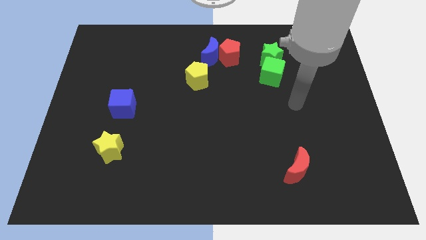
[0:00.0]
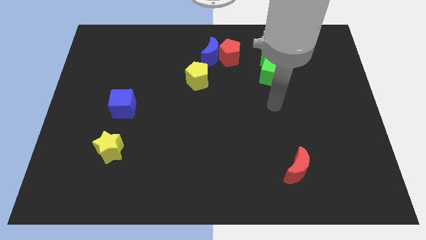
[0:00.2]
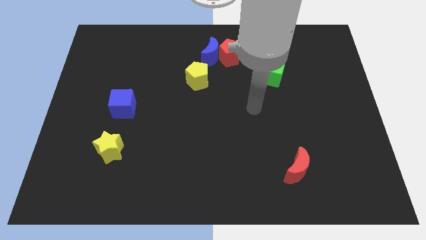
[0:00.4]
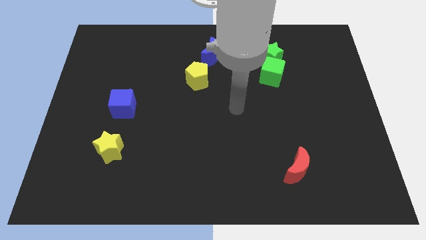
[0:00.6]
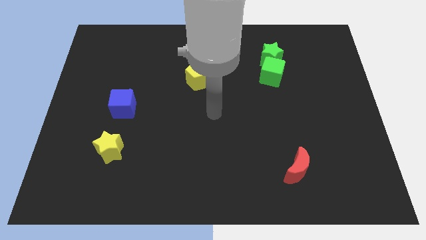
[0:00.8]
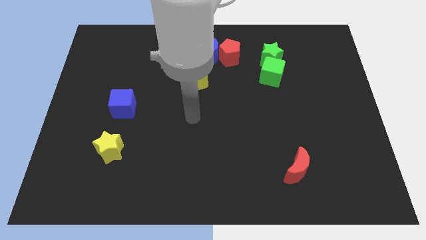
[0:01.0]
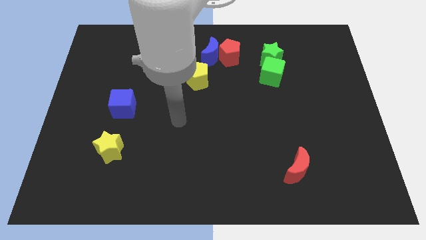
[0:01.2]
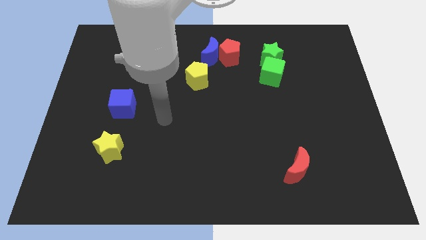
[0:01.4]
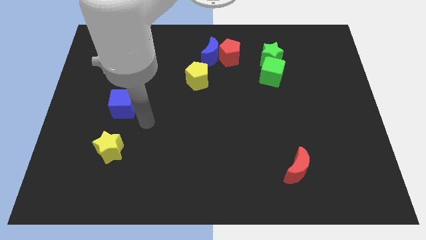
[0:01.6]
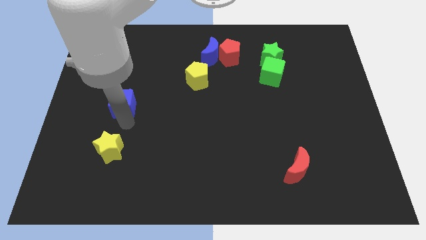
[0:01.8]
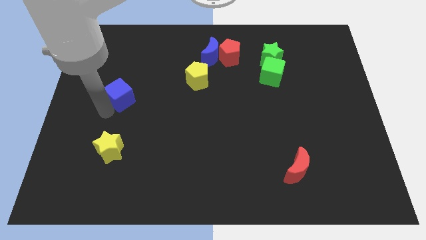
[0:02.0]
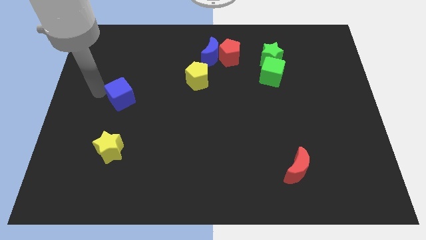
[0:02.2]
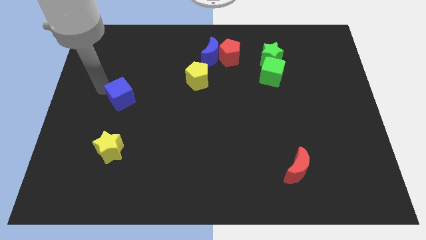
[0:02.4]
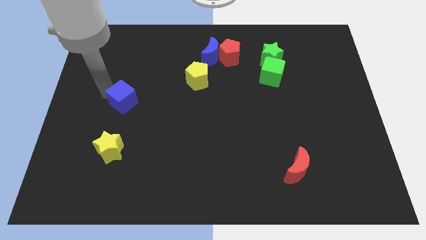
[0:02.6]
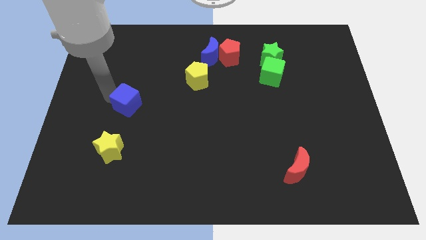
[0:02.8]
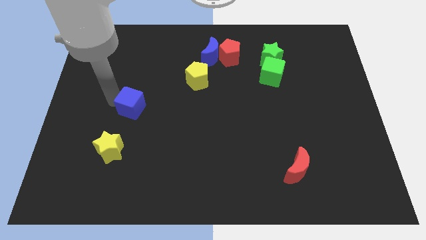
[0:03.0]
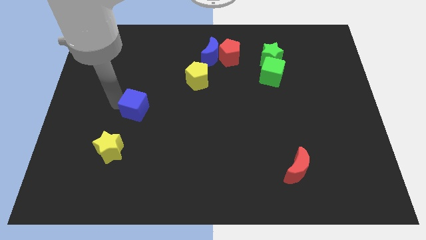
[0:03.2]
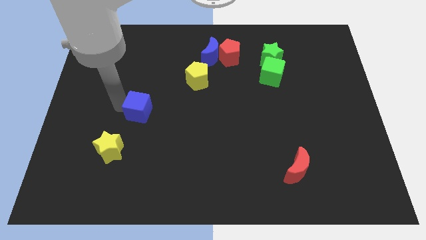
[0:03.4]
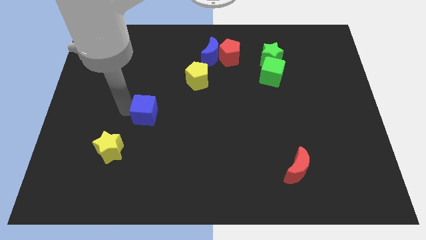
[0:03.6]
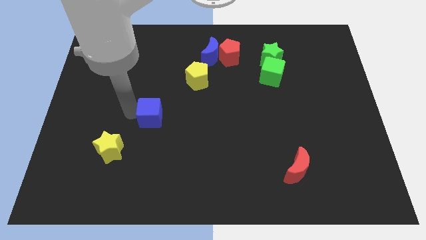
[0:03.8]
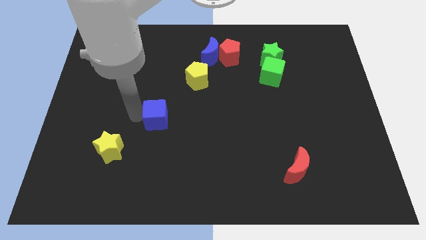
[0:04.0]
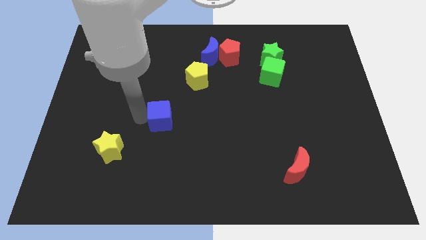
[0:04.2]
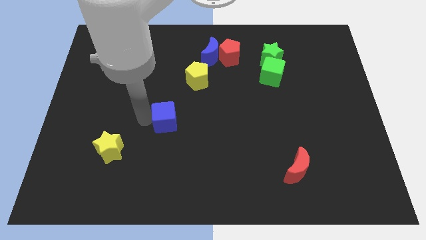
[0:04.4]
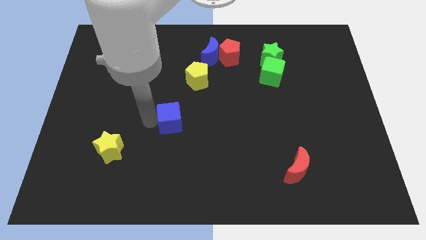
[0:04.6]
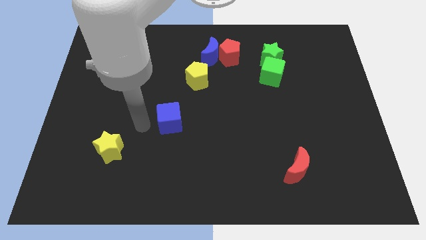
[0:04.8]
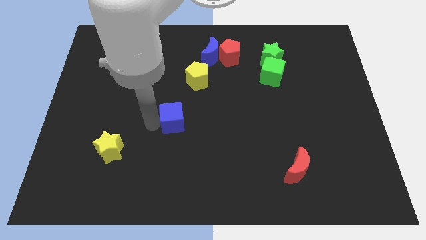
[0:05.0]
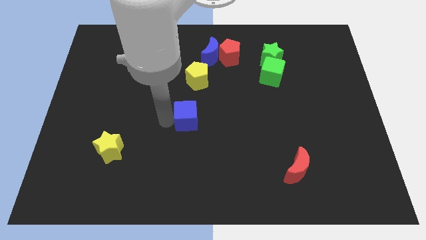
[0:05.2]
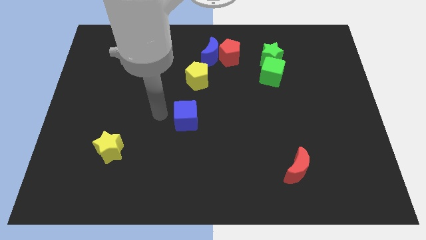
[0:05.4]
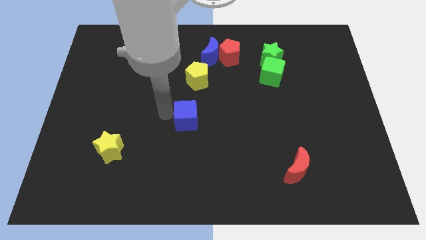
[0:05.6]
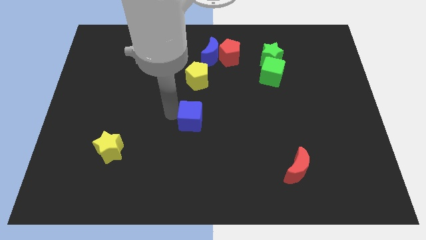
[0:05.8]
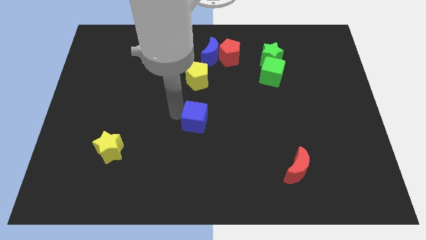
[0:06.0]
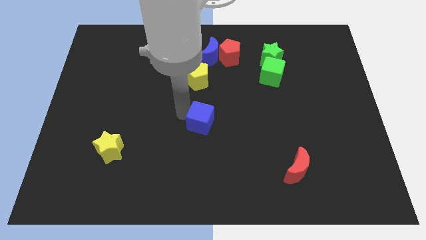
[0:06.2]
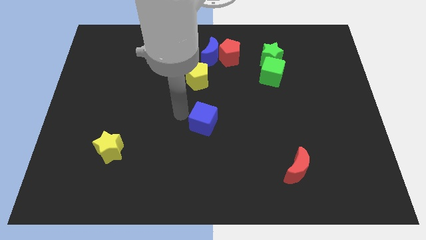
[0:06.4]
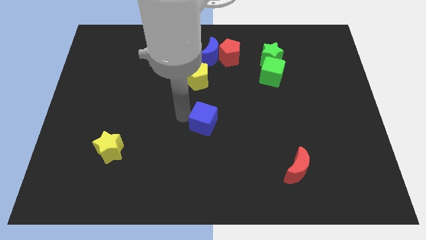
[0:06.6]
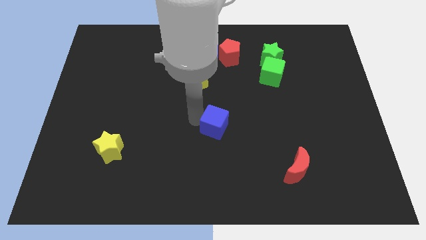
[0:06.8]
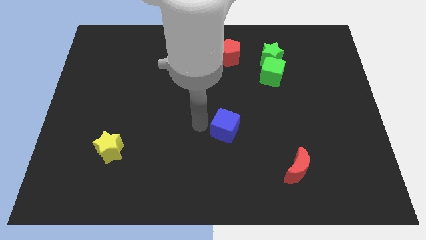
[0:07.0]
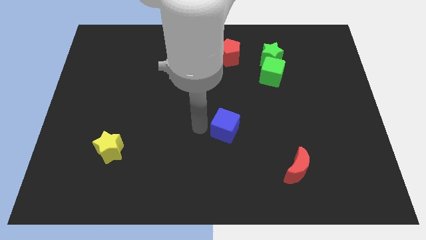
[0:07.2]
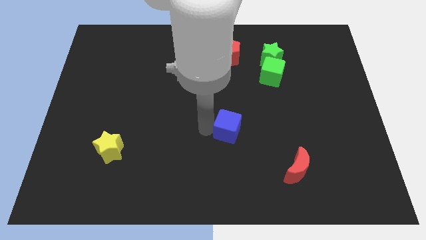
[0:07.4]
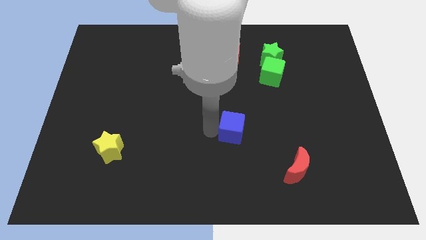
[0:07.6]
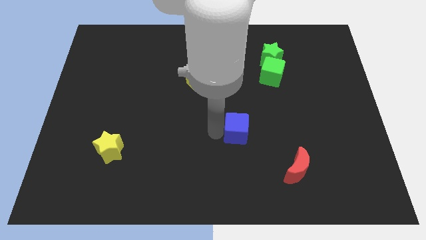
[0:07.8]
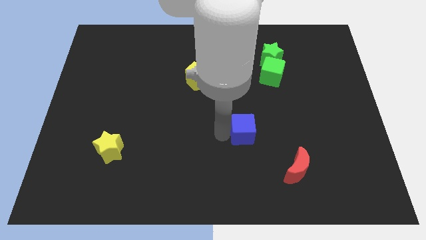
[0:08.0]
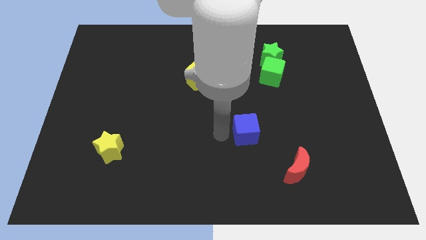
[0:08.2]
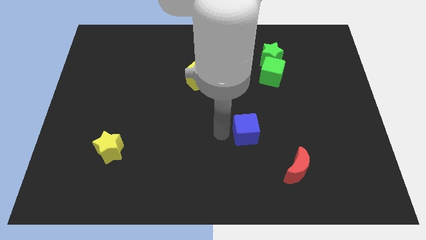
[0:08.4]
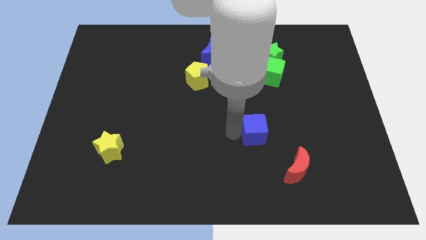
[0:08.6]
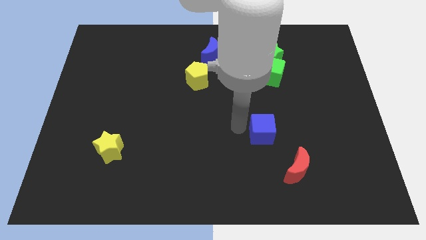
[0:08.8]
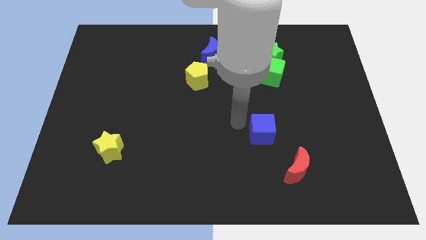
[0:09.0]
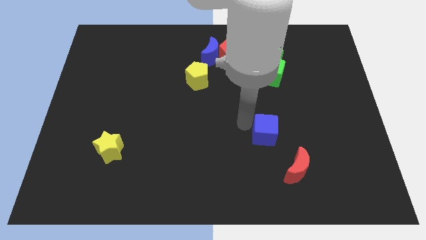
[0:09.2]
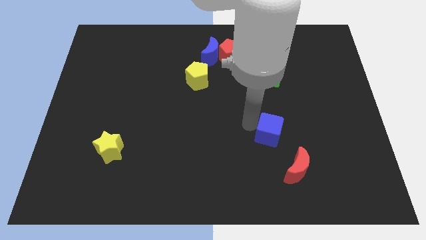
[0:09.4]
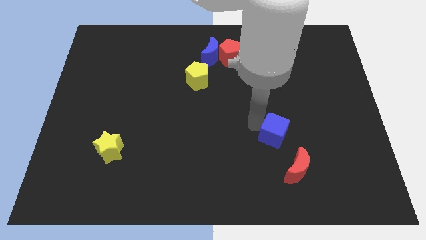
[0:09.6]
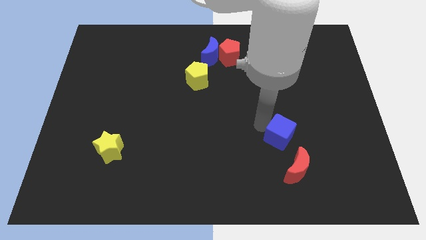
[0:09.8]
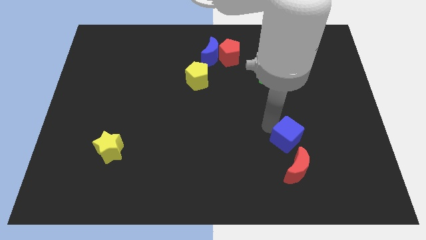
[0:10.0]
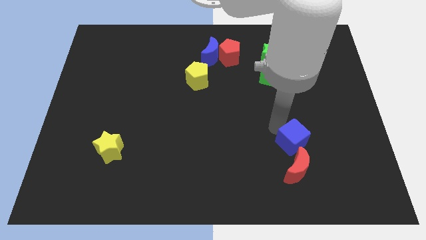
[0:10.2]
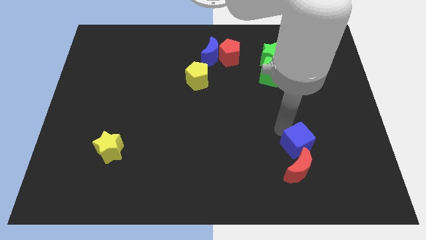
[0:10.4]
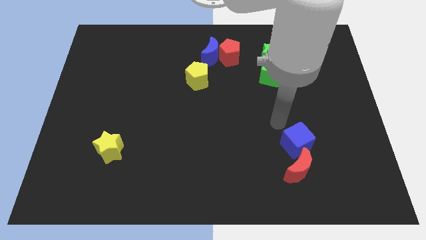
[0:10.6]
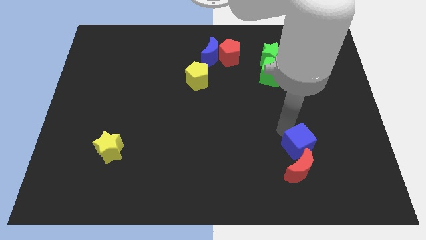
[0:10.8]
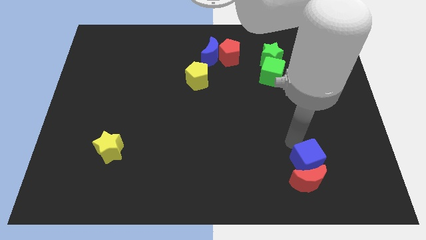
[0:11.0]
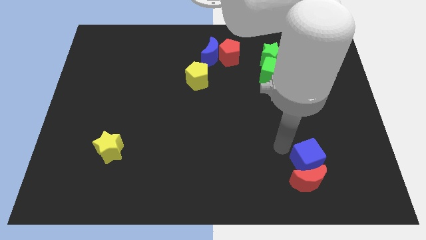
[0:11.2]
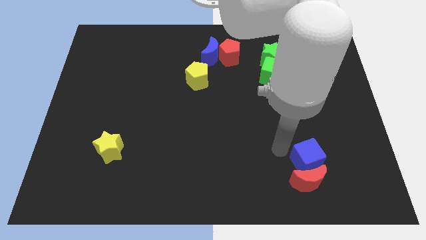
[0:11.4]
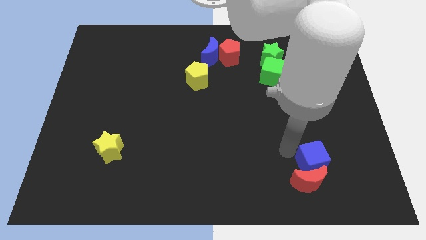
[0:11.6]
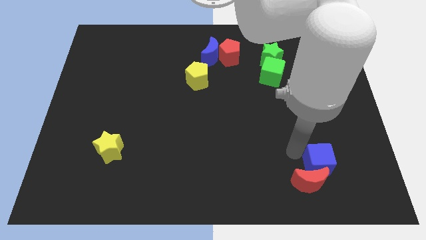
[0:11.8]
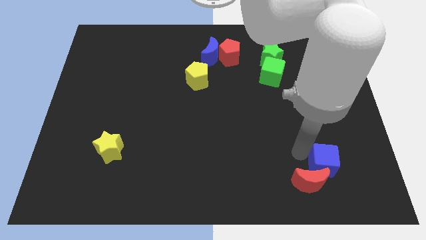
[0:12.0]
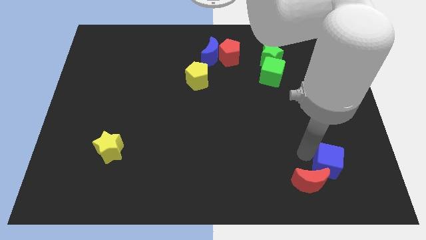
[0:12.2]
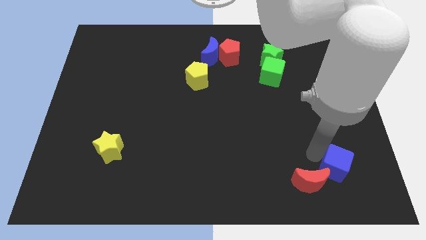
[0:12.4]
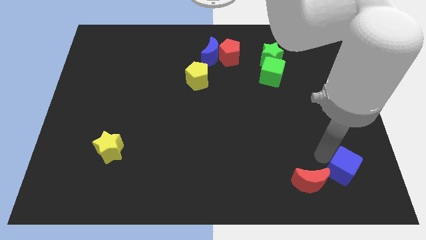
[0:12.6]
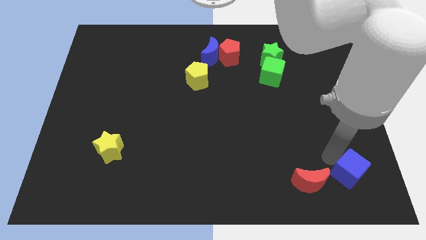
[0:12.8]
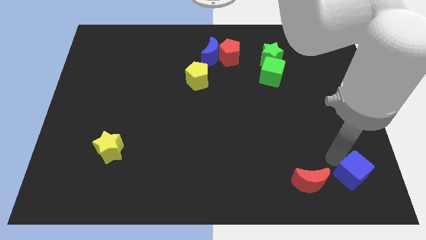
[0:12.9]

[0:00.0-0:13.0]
push the blue cube to the bottom right

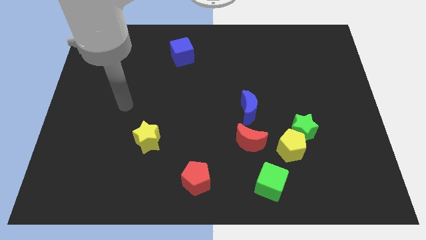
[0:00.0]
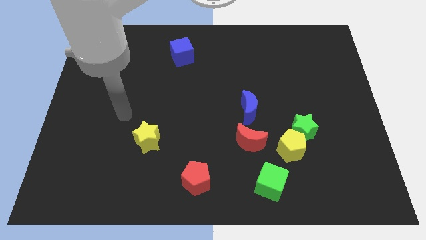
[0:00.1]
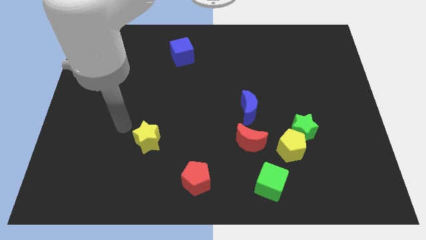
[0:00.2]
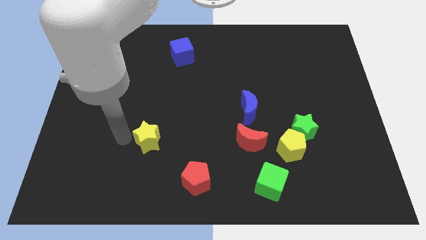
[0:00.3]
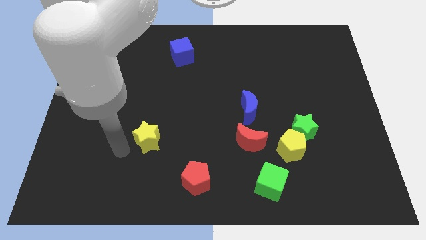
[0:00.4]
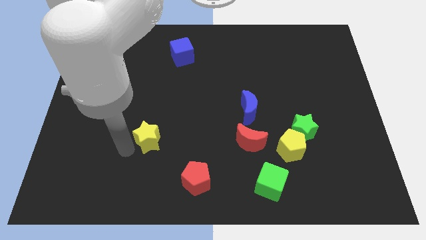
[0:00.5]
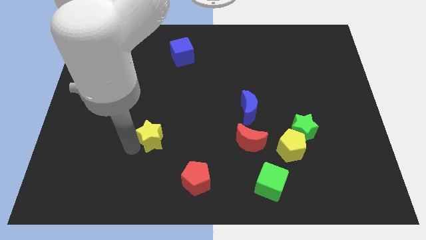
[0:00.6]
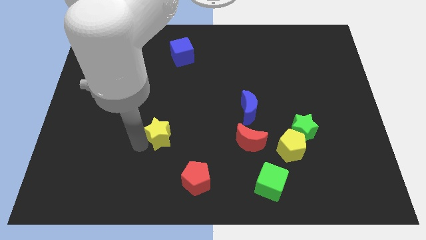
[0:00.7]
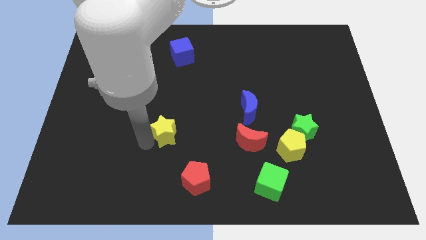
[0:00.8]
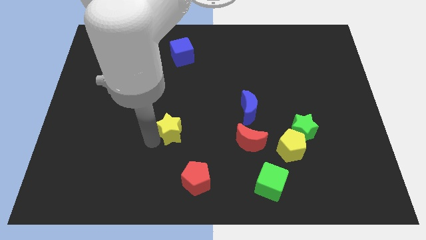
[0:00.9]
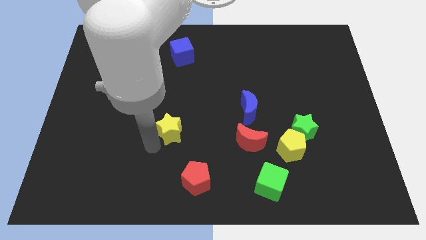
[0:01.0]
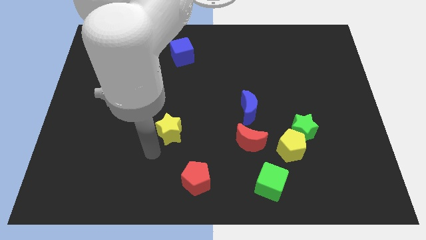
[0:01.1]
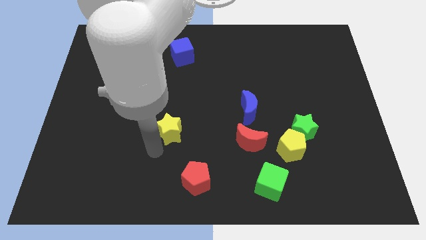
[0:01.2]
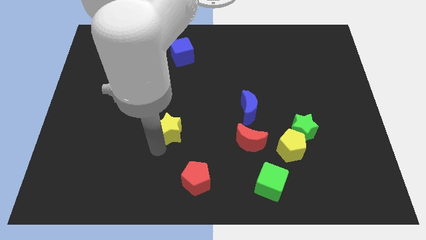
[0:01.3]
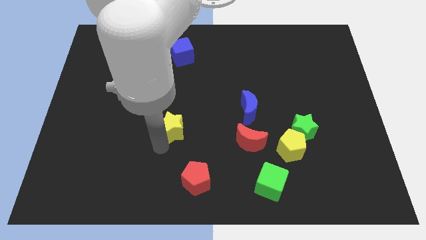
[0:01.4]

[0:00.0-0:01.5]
put the yellow star to the center
